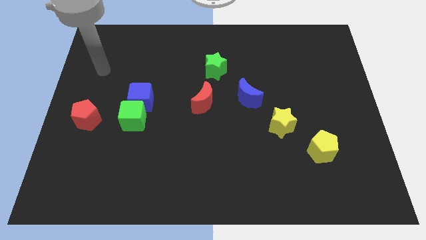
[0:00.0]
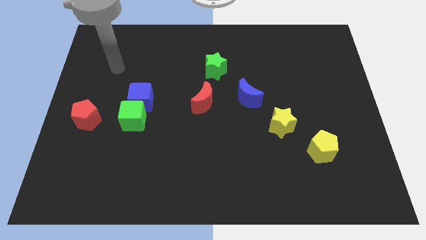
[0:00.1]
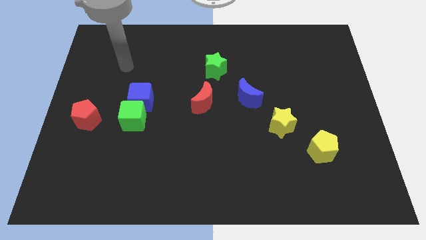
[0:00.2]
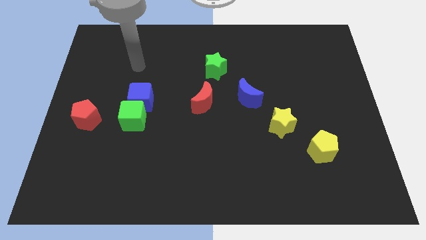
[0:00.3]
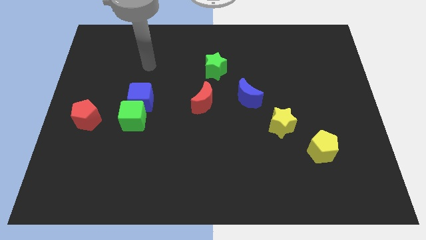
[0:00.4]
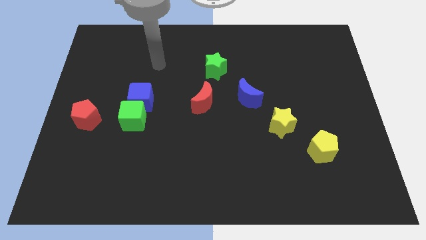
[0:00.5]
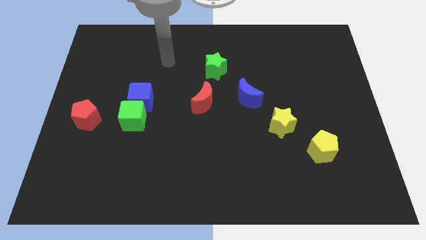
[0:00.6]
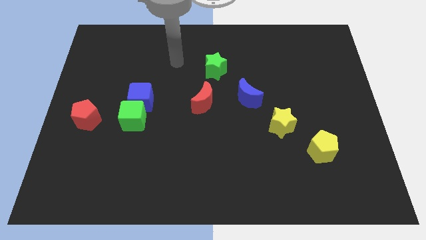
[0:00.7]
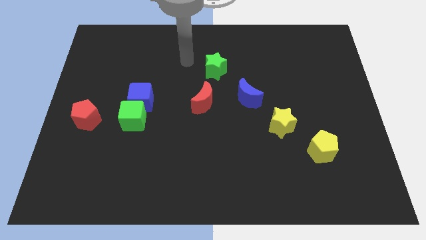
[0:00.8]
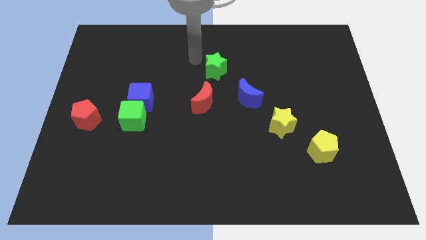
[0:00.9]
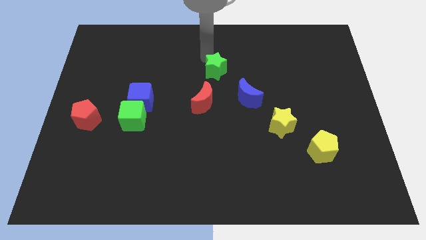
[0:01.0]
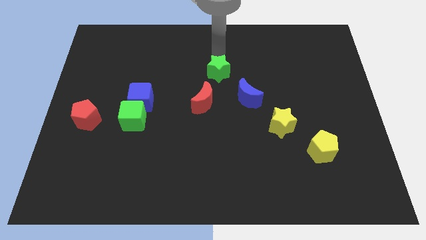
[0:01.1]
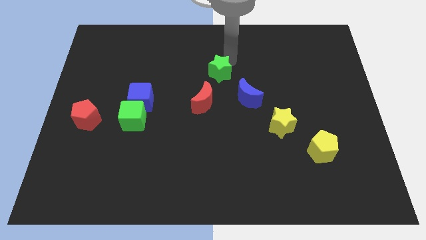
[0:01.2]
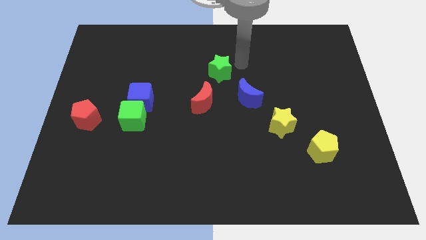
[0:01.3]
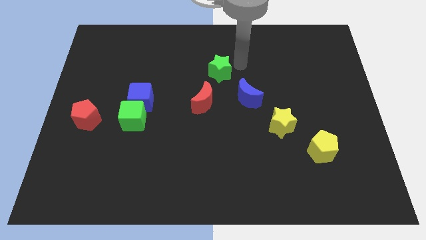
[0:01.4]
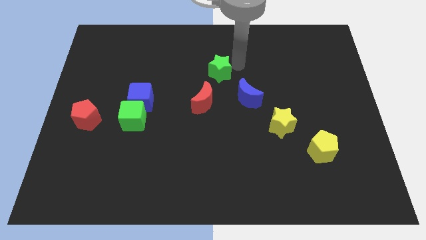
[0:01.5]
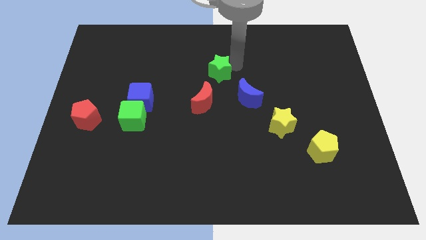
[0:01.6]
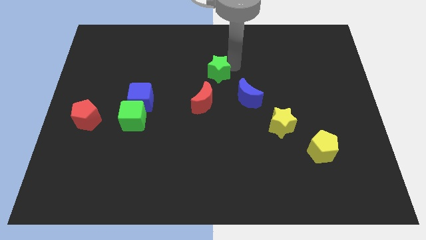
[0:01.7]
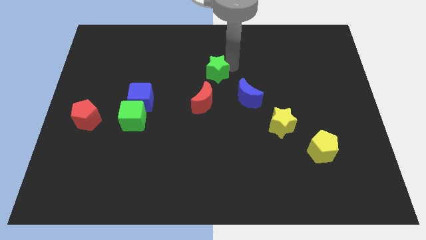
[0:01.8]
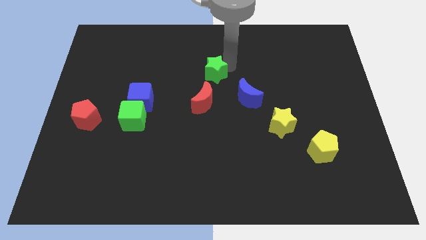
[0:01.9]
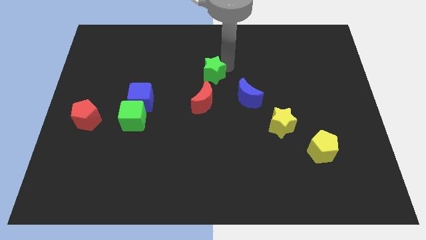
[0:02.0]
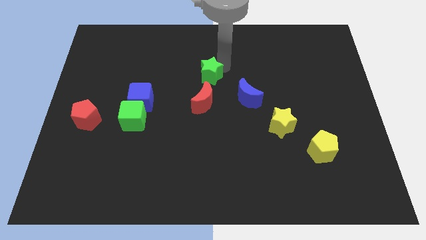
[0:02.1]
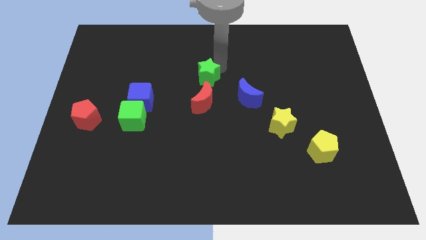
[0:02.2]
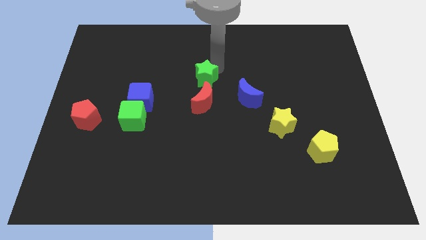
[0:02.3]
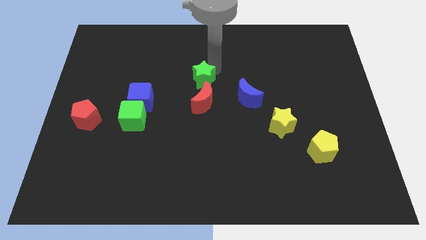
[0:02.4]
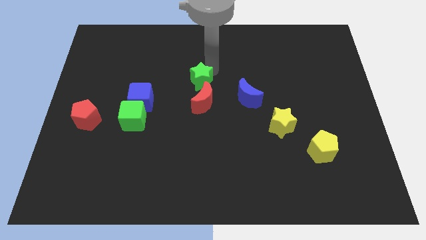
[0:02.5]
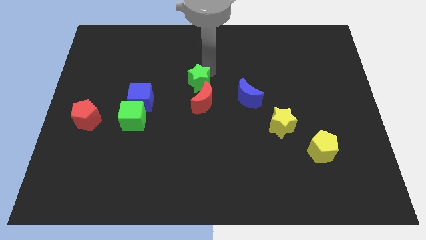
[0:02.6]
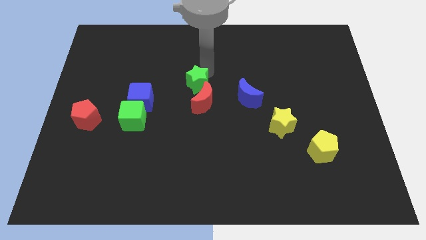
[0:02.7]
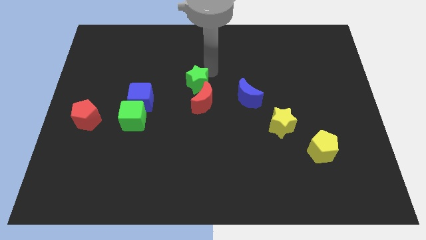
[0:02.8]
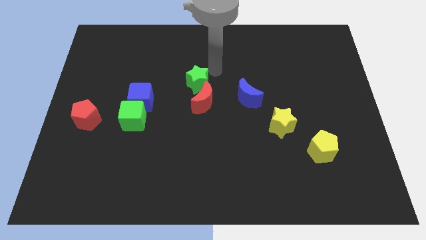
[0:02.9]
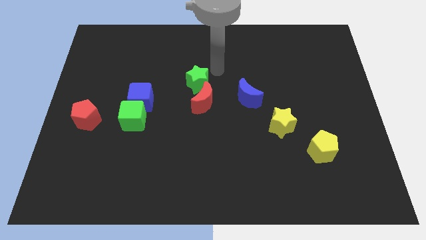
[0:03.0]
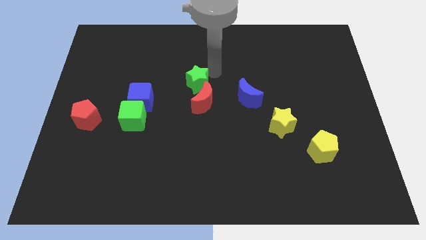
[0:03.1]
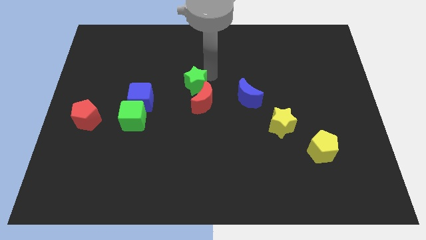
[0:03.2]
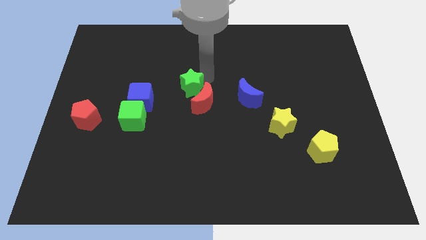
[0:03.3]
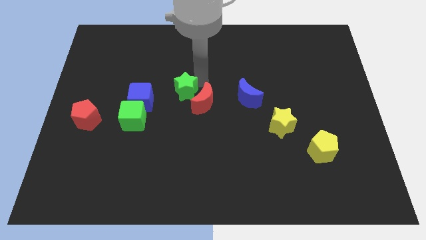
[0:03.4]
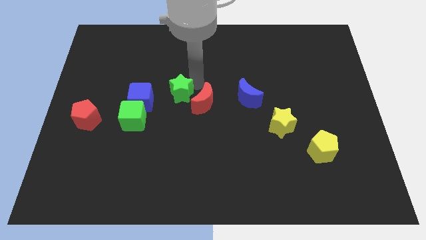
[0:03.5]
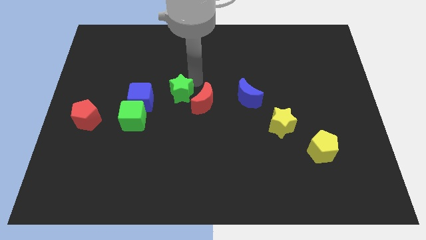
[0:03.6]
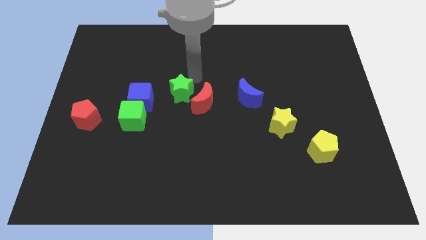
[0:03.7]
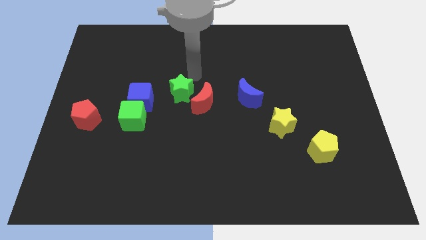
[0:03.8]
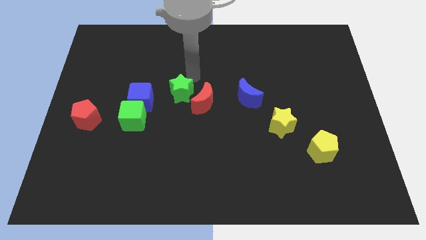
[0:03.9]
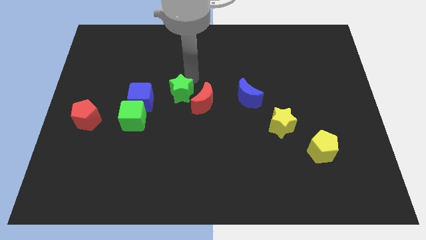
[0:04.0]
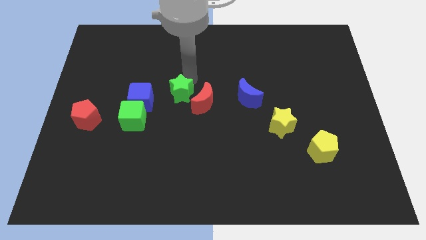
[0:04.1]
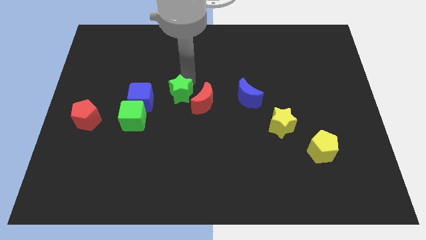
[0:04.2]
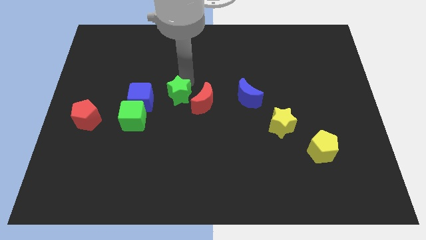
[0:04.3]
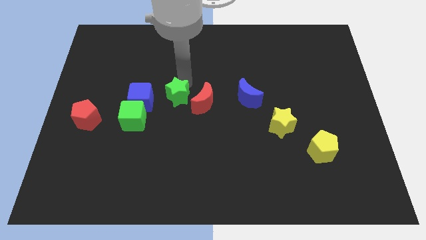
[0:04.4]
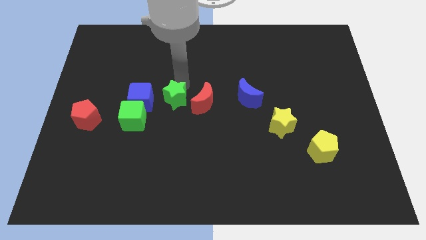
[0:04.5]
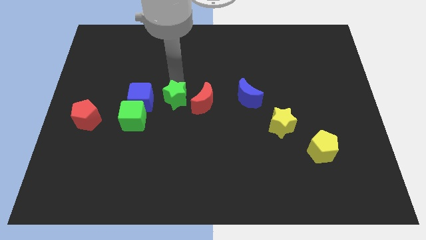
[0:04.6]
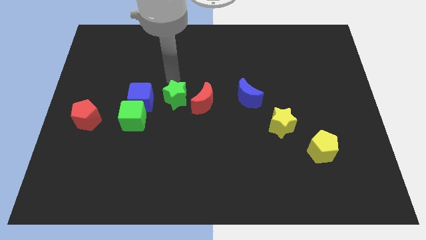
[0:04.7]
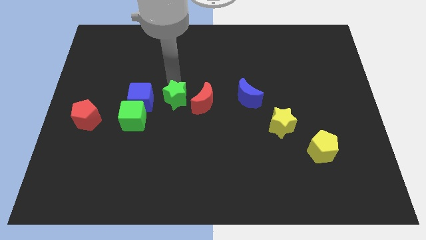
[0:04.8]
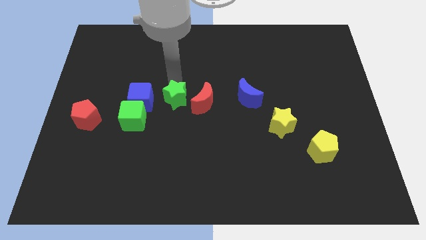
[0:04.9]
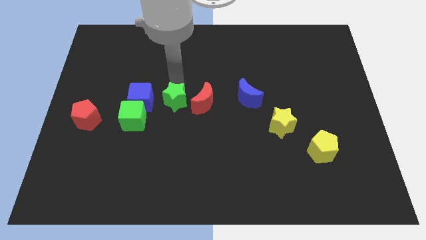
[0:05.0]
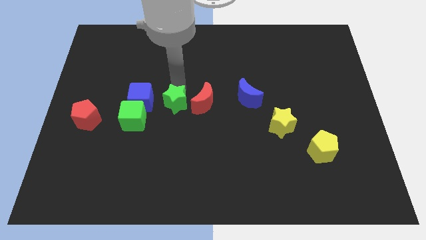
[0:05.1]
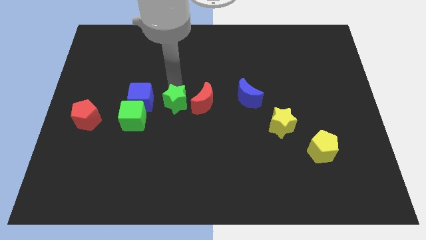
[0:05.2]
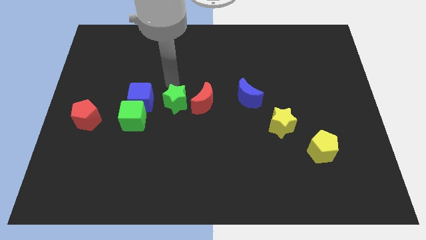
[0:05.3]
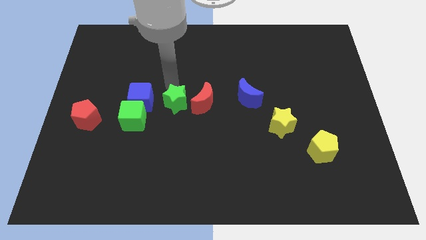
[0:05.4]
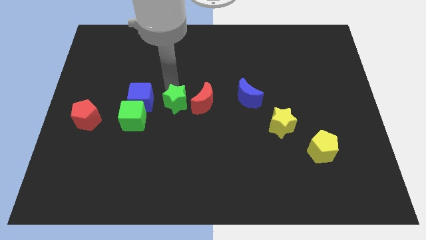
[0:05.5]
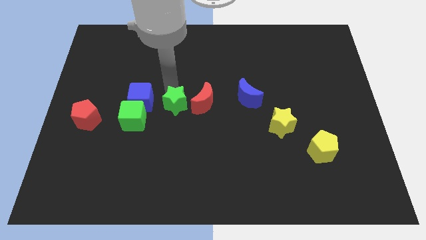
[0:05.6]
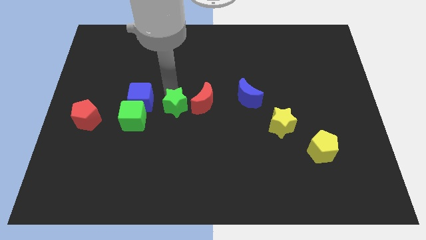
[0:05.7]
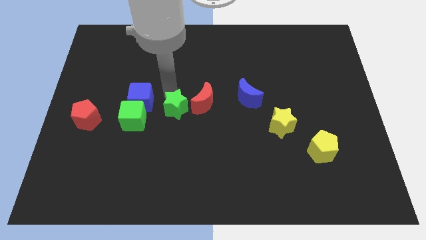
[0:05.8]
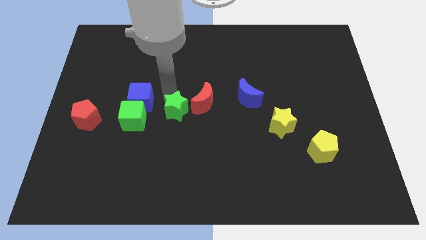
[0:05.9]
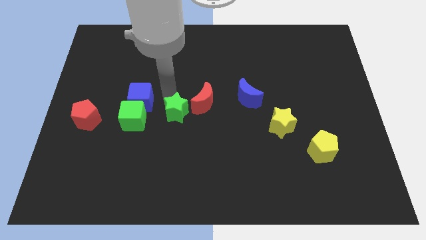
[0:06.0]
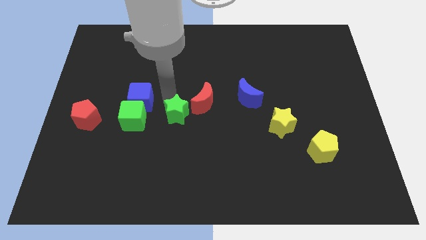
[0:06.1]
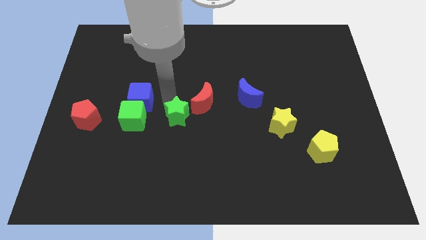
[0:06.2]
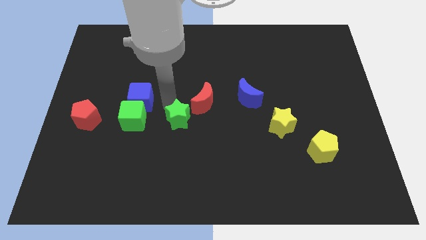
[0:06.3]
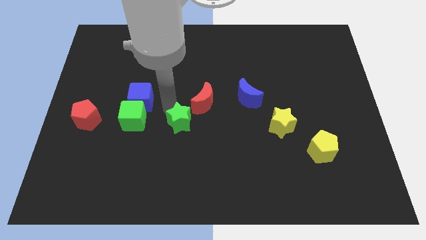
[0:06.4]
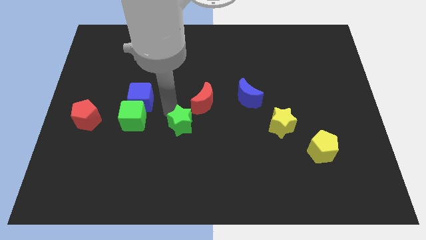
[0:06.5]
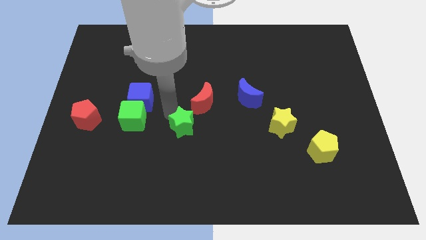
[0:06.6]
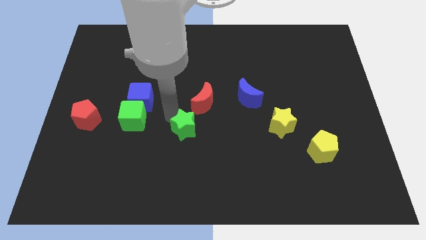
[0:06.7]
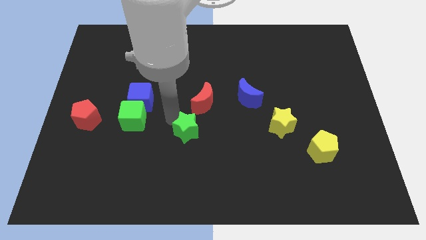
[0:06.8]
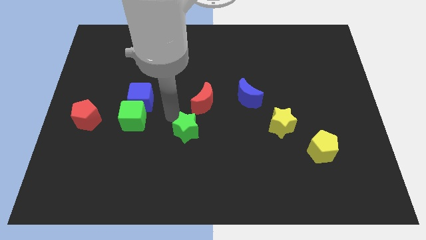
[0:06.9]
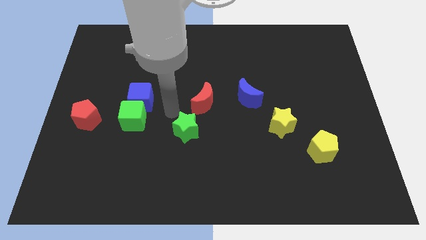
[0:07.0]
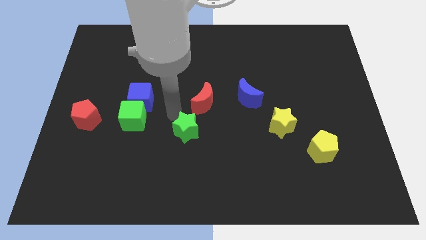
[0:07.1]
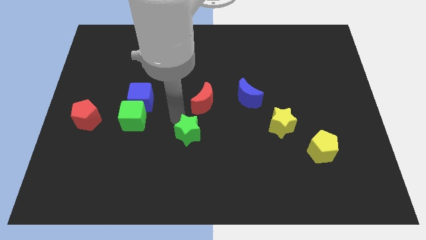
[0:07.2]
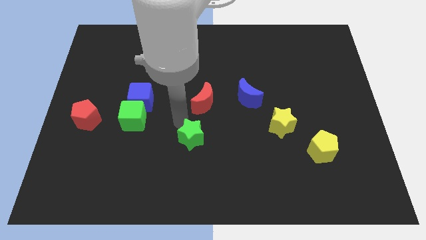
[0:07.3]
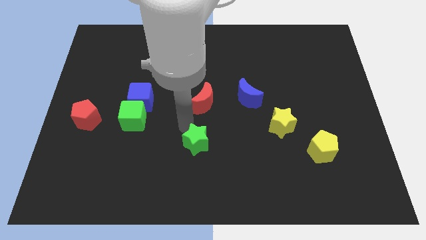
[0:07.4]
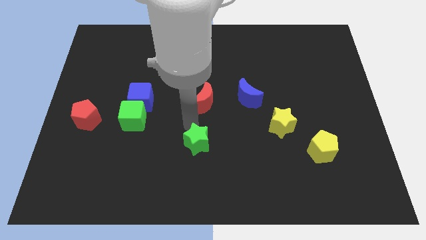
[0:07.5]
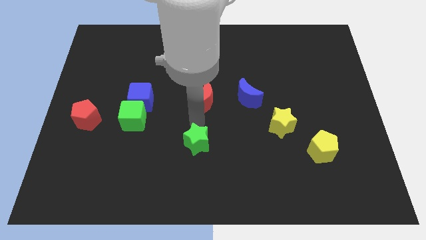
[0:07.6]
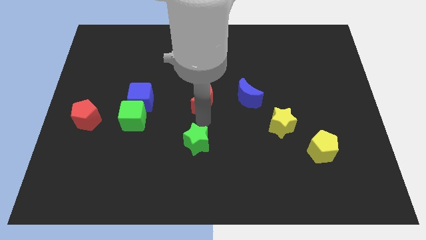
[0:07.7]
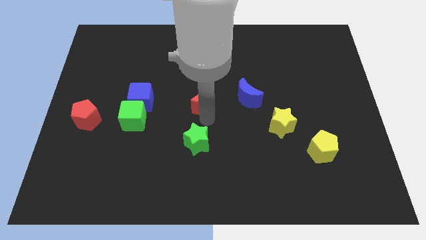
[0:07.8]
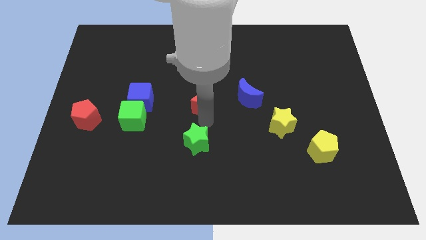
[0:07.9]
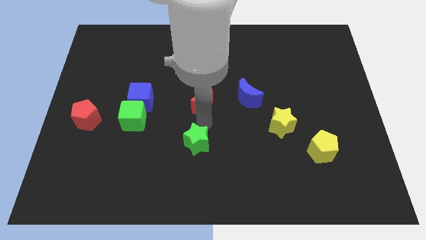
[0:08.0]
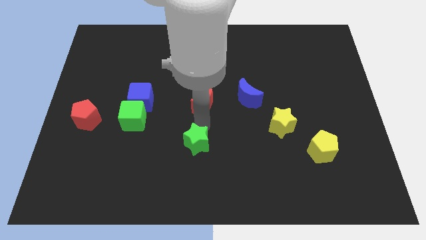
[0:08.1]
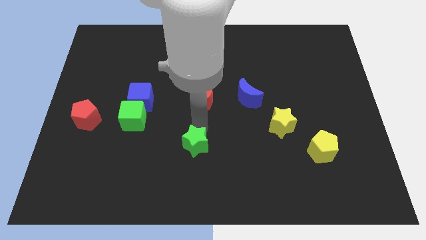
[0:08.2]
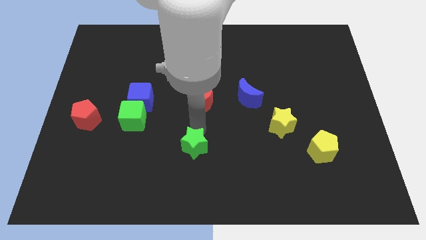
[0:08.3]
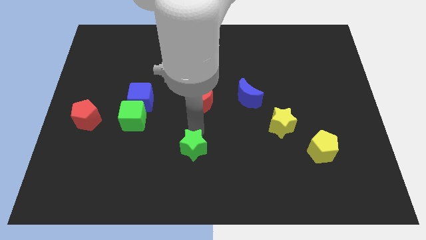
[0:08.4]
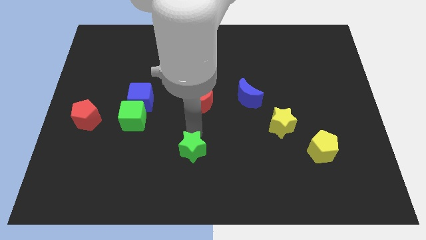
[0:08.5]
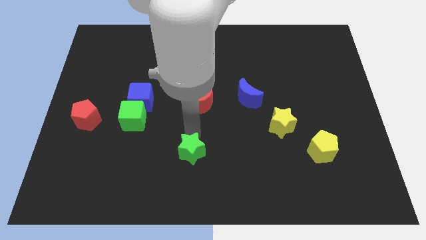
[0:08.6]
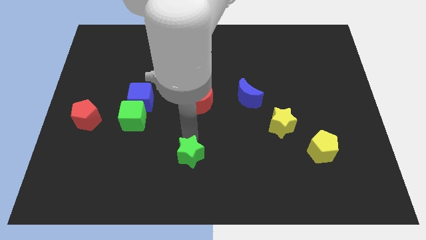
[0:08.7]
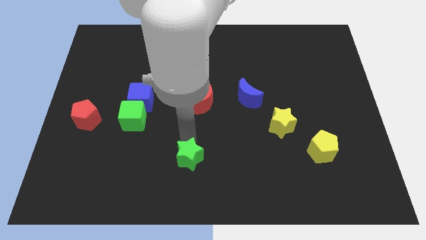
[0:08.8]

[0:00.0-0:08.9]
move the green star to the bottom side

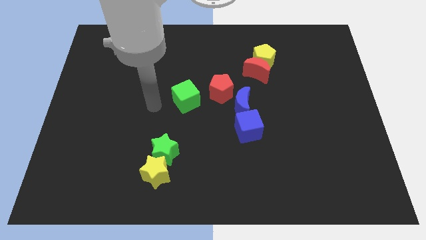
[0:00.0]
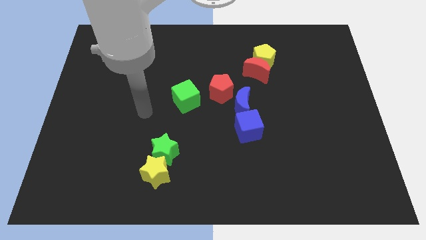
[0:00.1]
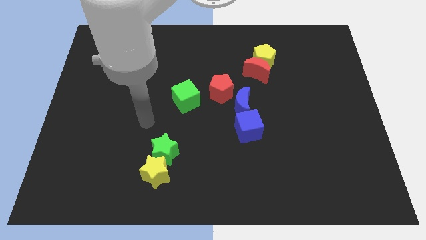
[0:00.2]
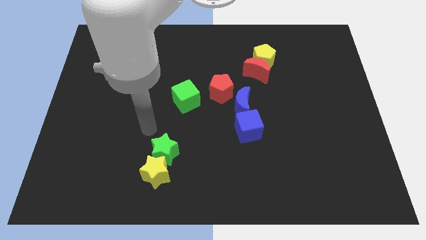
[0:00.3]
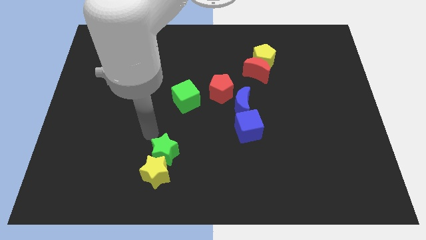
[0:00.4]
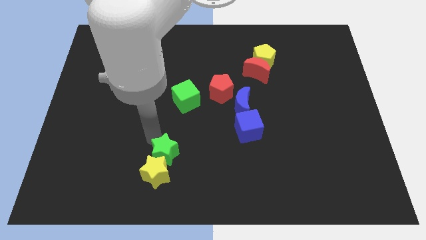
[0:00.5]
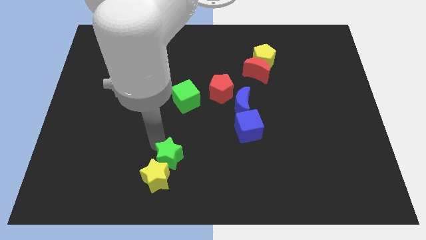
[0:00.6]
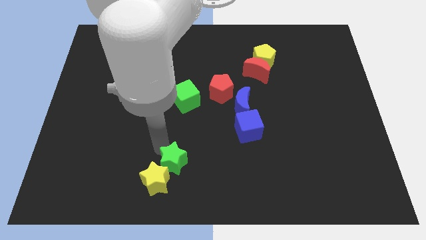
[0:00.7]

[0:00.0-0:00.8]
put the green star to the bottom side
